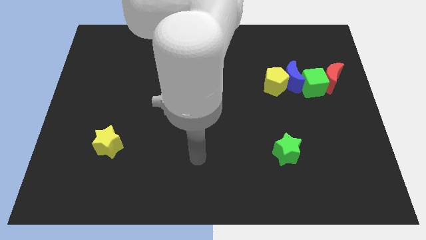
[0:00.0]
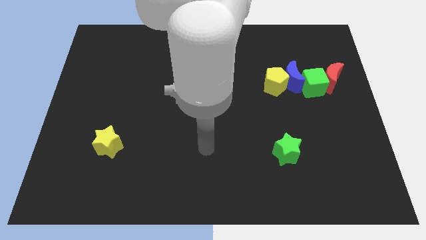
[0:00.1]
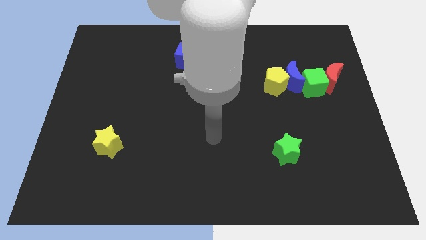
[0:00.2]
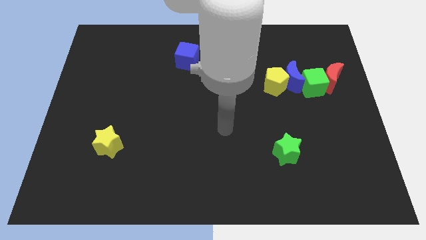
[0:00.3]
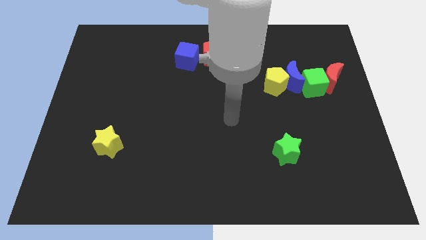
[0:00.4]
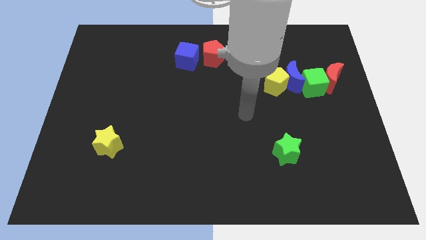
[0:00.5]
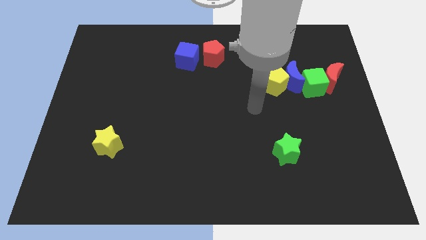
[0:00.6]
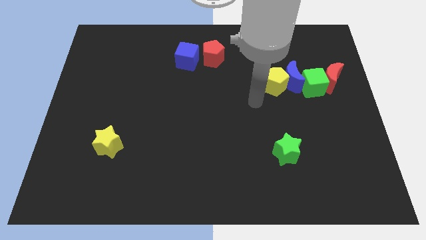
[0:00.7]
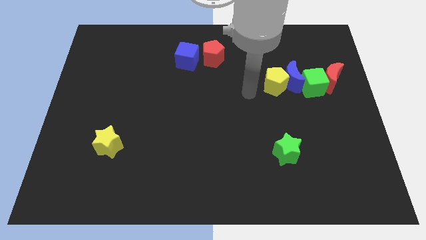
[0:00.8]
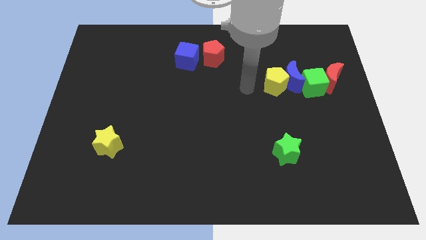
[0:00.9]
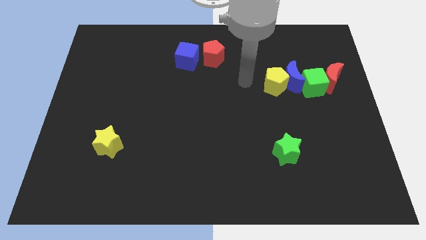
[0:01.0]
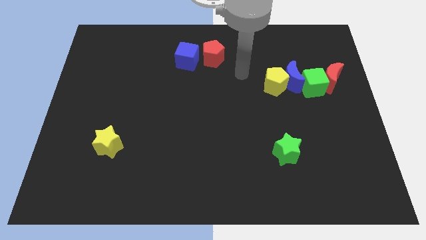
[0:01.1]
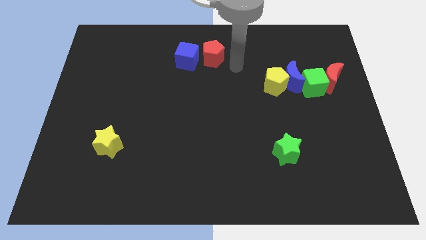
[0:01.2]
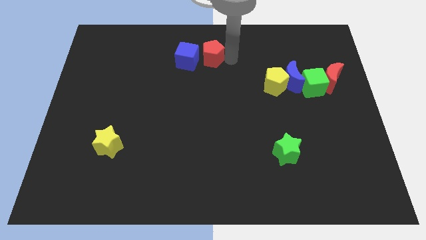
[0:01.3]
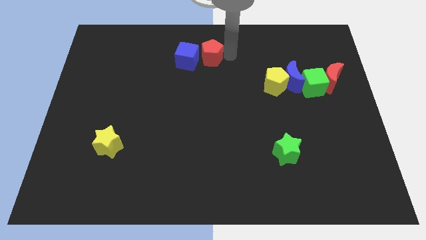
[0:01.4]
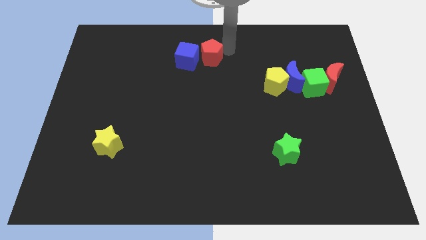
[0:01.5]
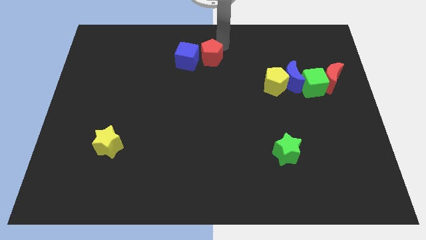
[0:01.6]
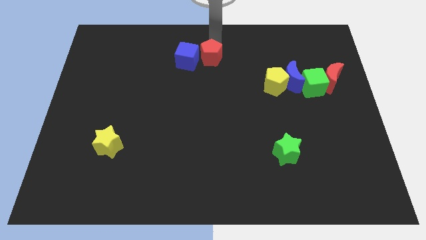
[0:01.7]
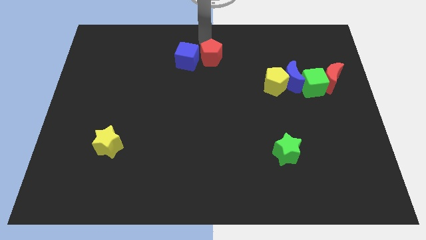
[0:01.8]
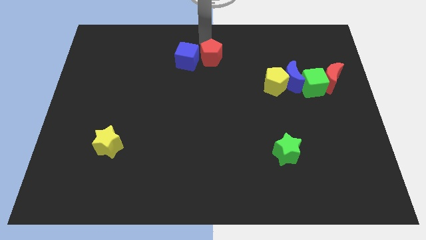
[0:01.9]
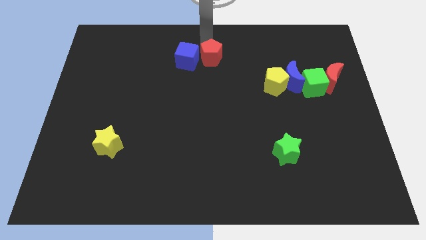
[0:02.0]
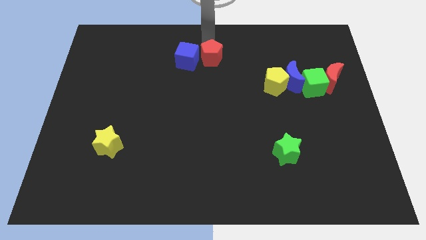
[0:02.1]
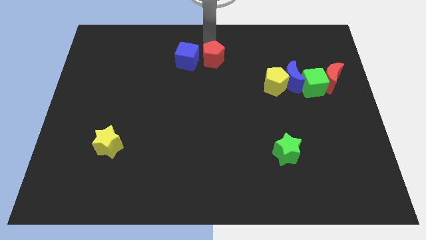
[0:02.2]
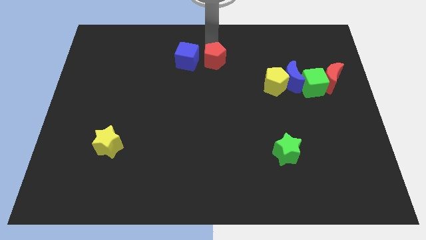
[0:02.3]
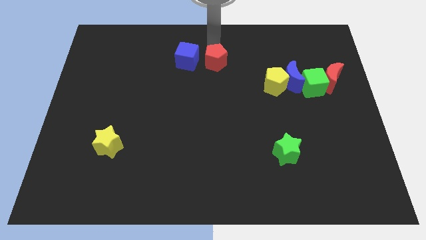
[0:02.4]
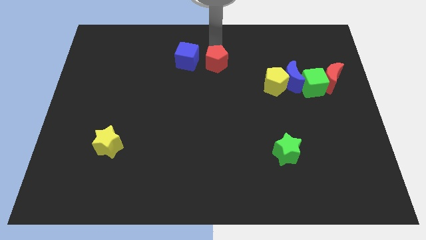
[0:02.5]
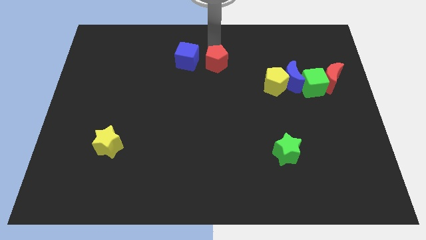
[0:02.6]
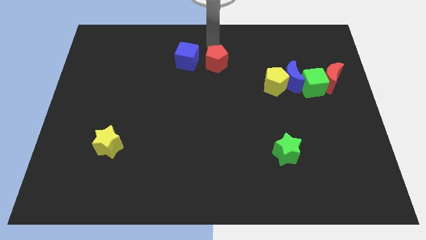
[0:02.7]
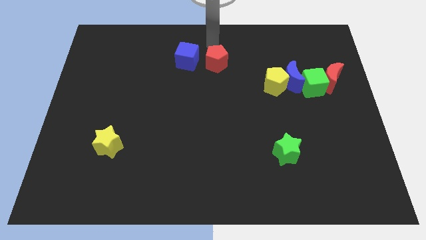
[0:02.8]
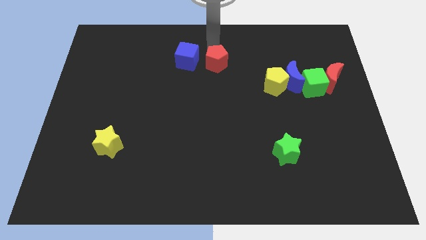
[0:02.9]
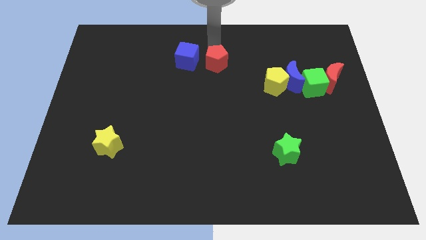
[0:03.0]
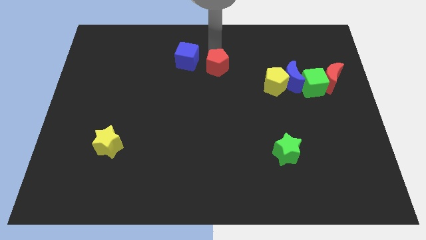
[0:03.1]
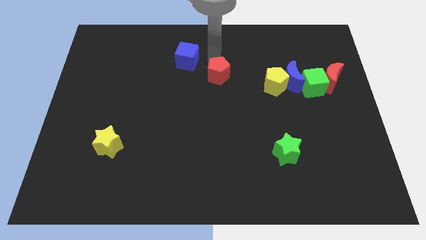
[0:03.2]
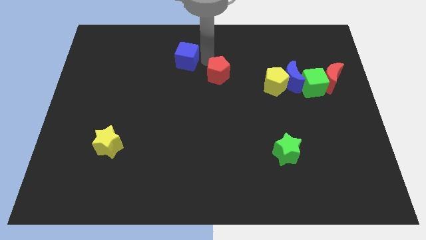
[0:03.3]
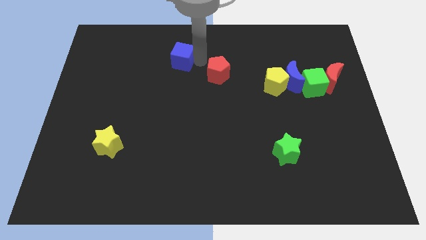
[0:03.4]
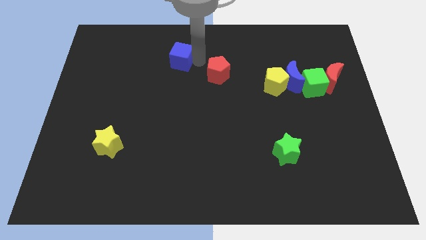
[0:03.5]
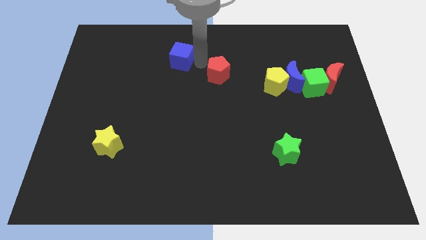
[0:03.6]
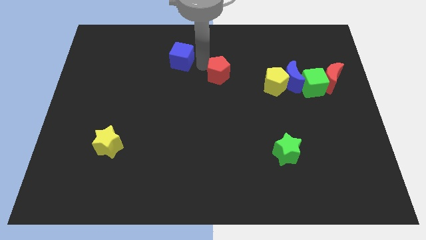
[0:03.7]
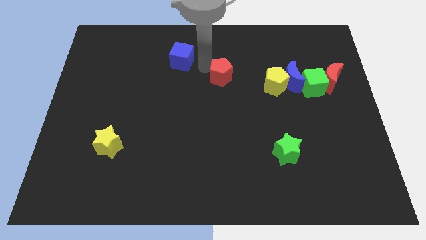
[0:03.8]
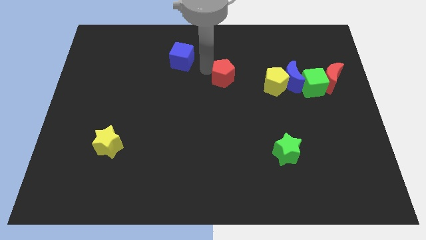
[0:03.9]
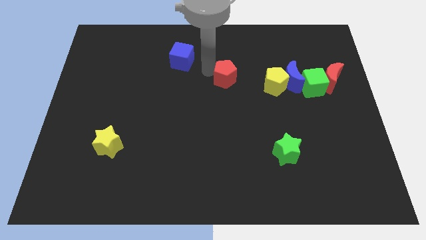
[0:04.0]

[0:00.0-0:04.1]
push the red pentagon a little bit down and to the right

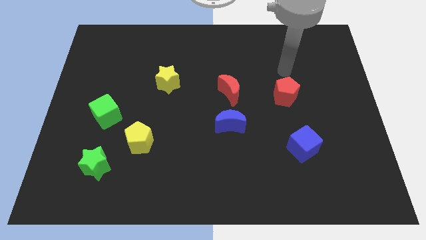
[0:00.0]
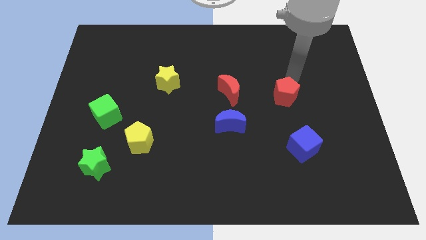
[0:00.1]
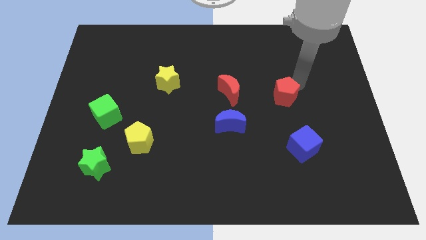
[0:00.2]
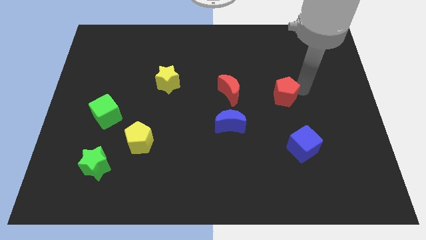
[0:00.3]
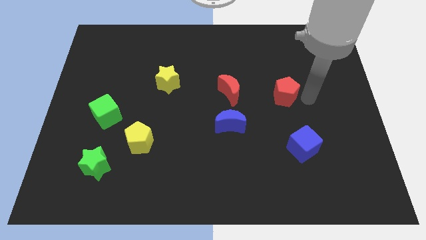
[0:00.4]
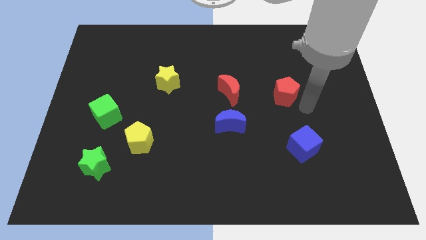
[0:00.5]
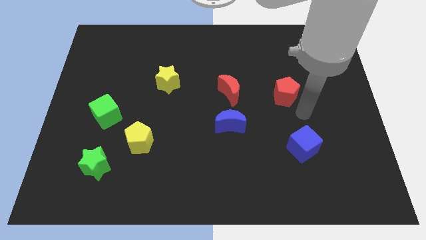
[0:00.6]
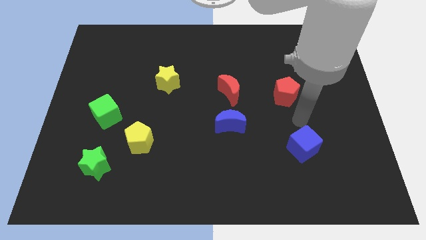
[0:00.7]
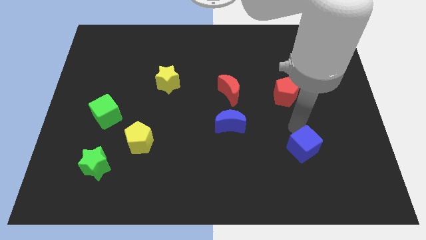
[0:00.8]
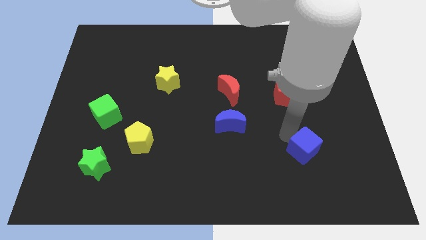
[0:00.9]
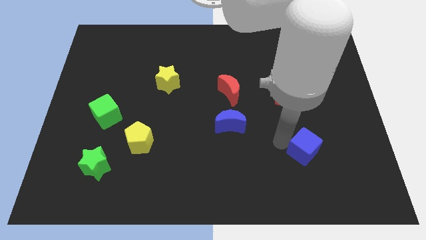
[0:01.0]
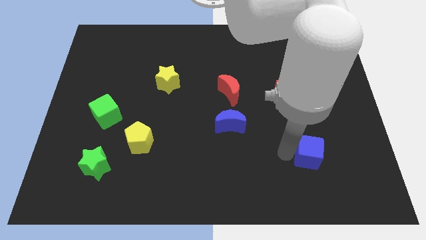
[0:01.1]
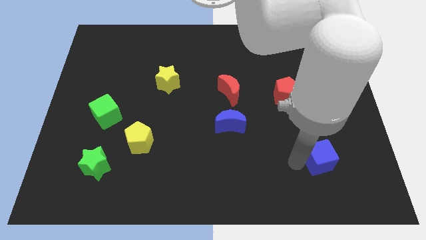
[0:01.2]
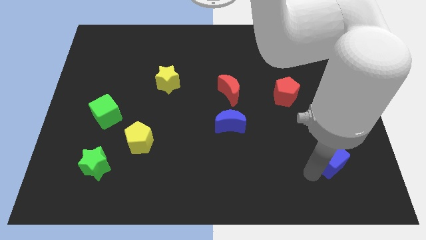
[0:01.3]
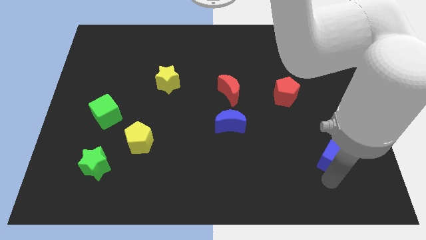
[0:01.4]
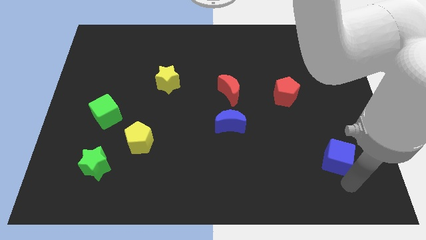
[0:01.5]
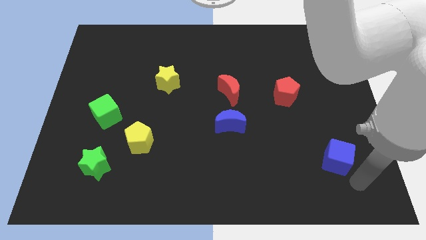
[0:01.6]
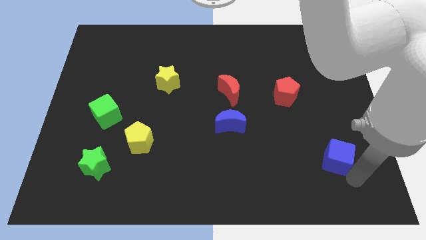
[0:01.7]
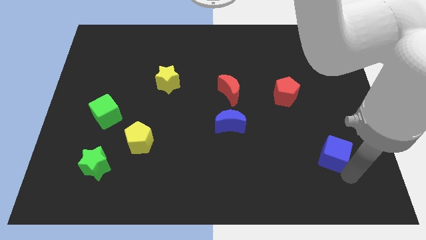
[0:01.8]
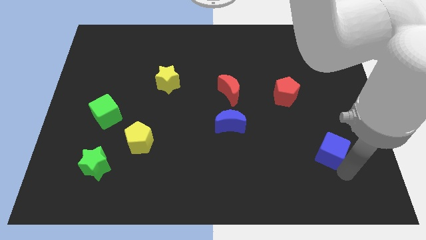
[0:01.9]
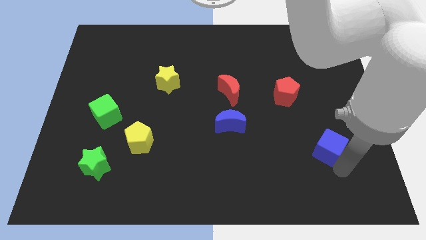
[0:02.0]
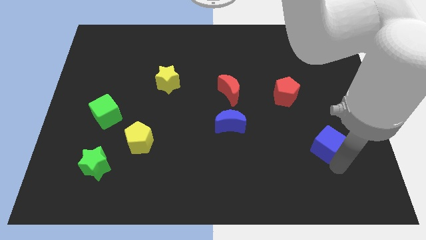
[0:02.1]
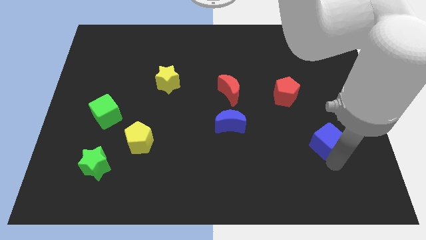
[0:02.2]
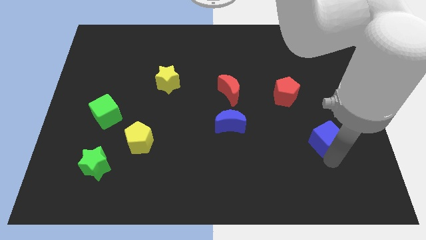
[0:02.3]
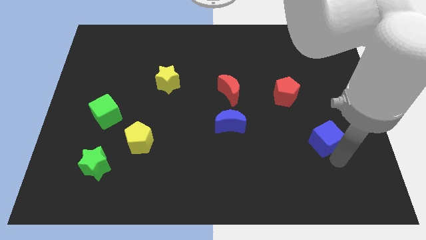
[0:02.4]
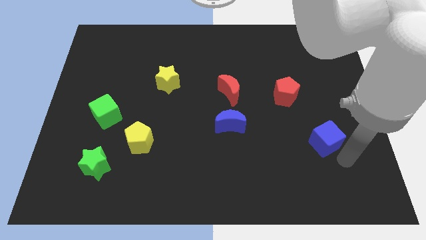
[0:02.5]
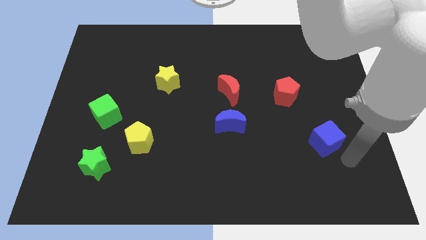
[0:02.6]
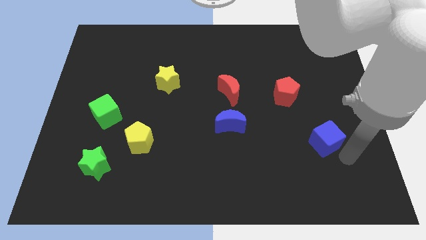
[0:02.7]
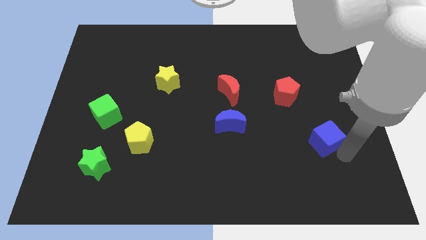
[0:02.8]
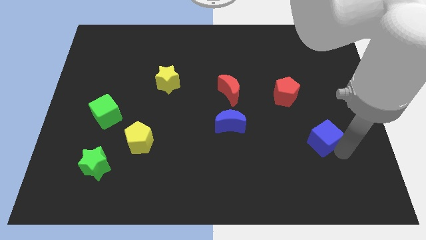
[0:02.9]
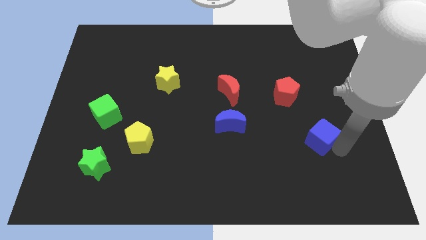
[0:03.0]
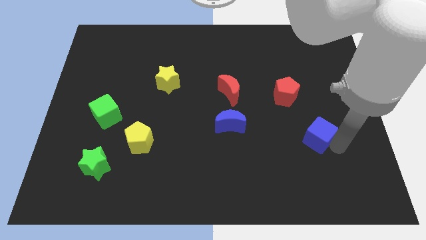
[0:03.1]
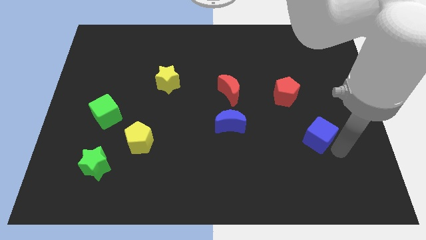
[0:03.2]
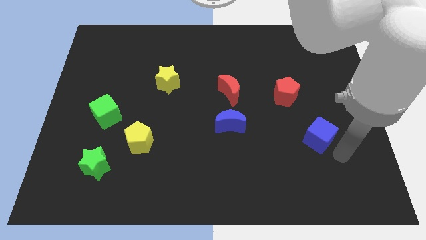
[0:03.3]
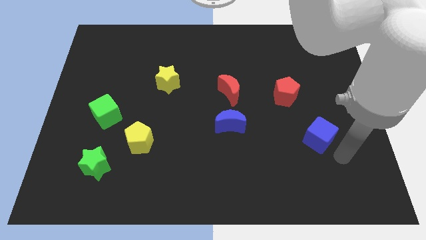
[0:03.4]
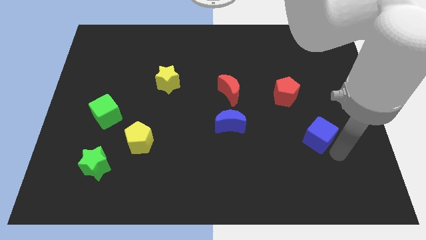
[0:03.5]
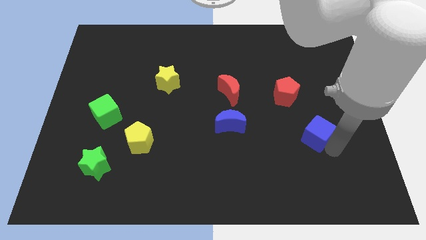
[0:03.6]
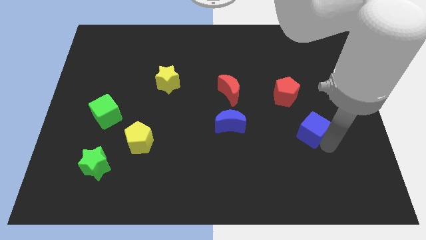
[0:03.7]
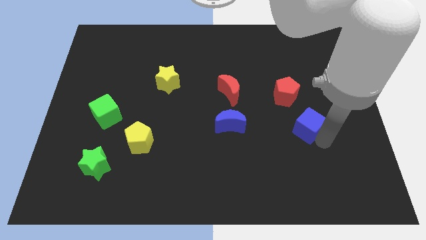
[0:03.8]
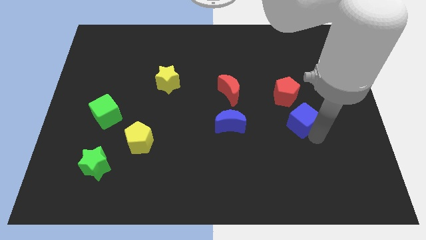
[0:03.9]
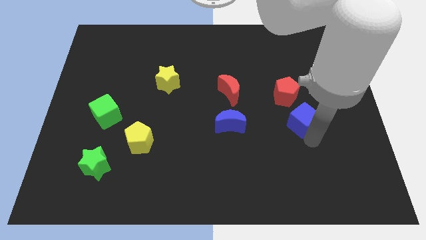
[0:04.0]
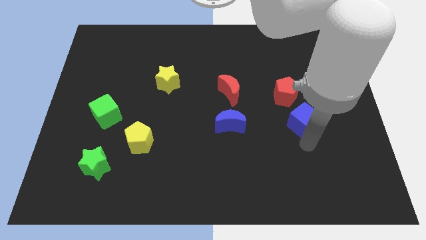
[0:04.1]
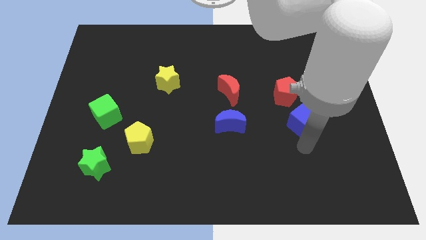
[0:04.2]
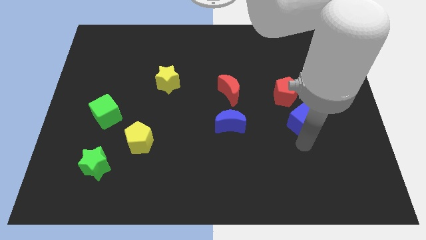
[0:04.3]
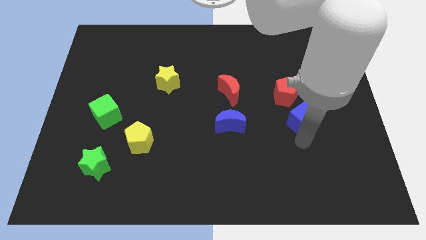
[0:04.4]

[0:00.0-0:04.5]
push the blue cube up somewhat
